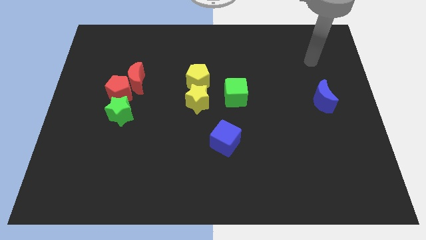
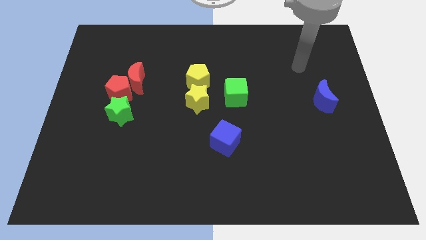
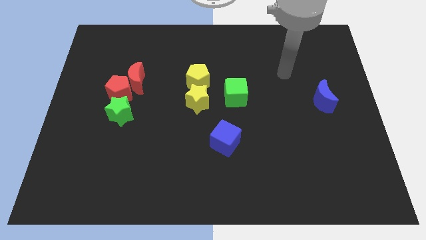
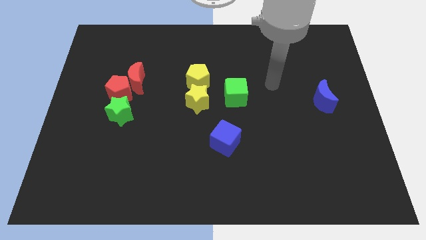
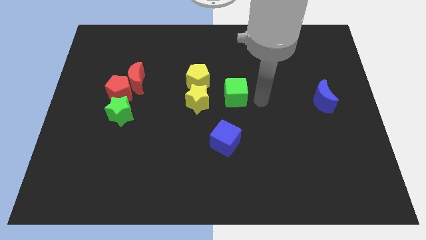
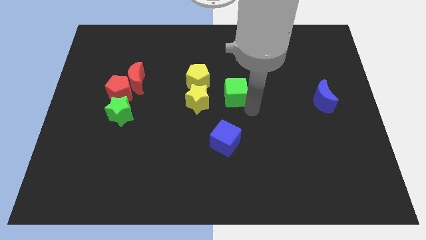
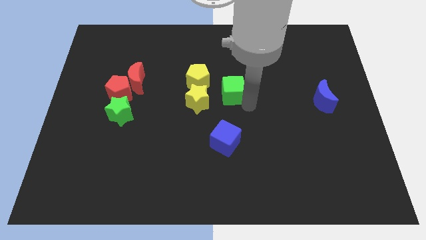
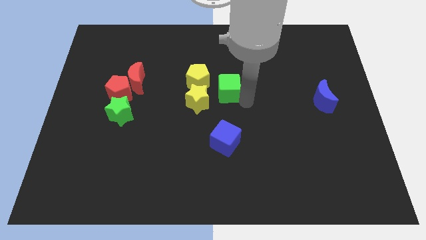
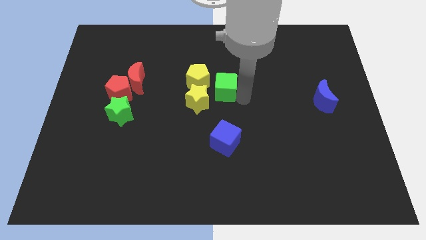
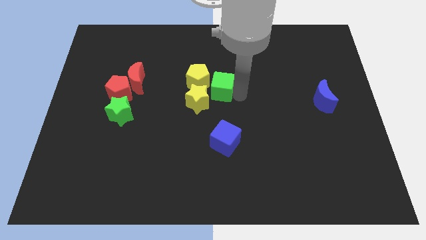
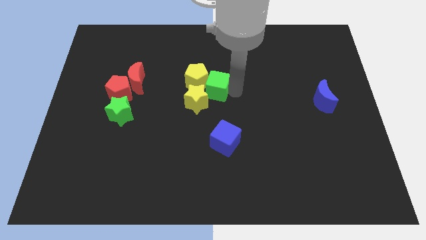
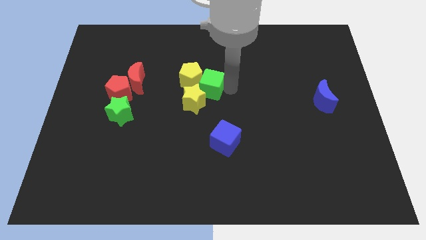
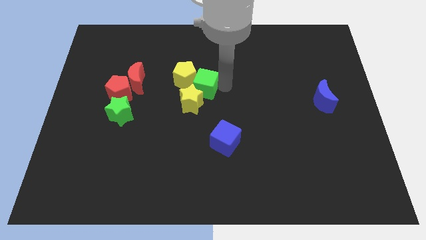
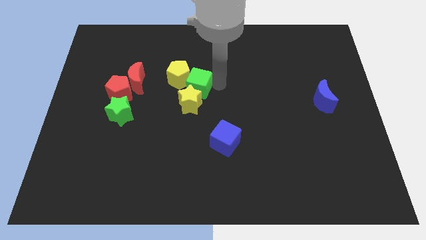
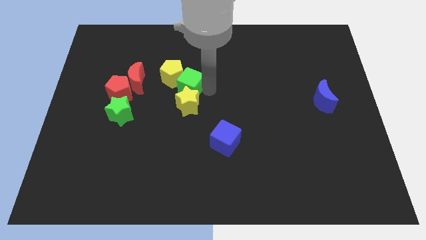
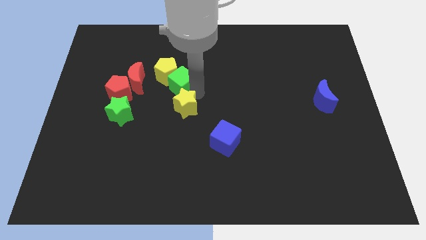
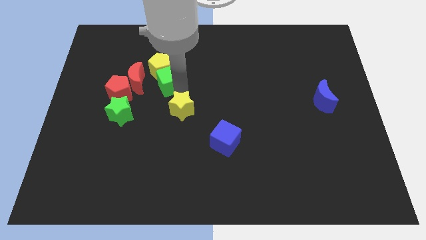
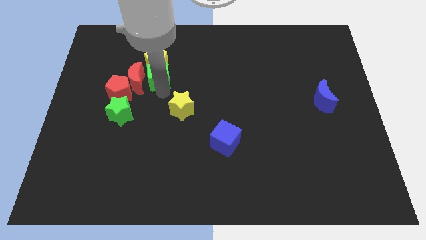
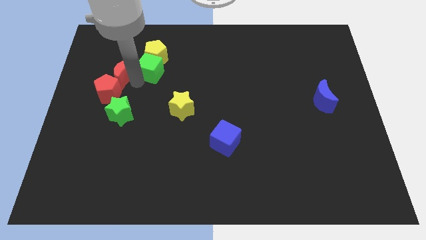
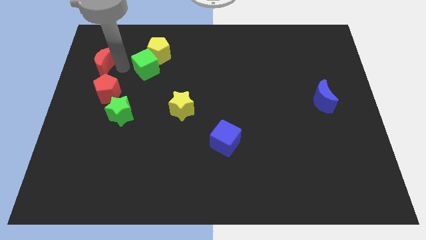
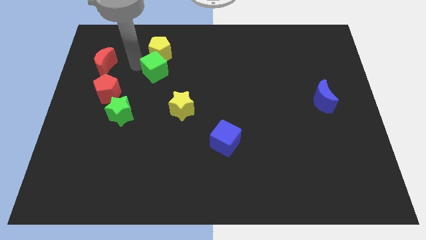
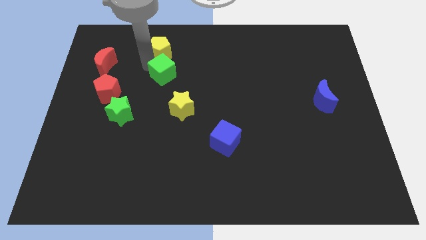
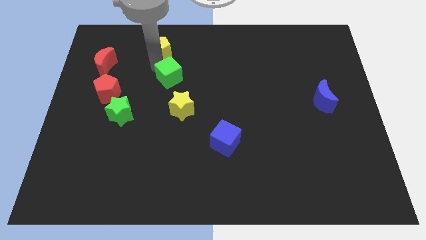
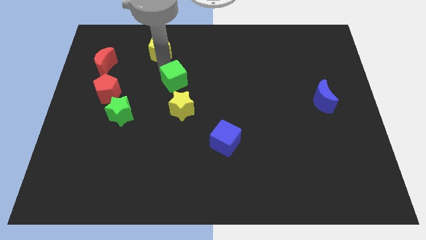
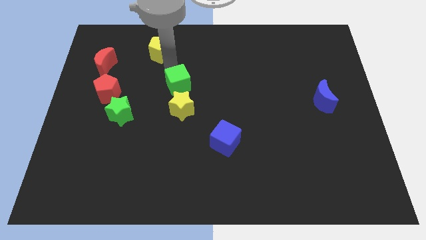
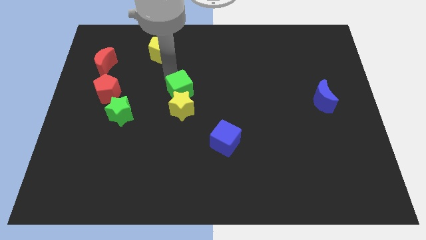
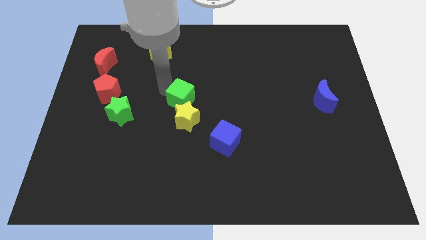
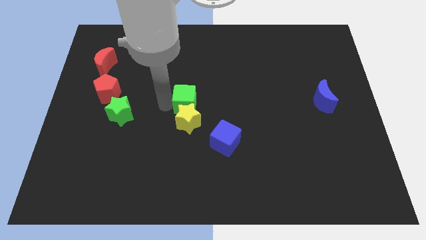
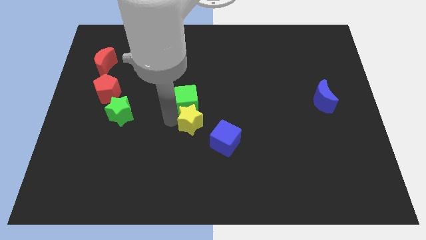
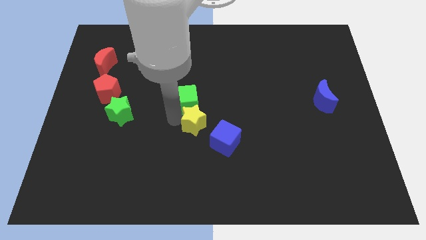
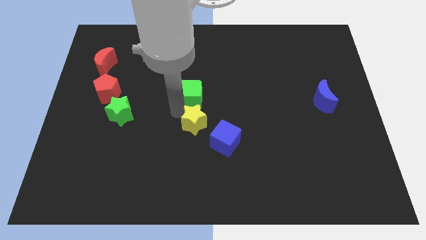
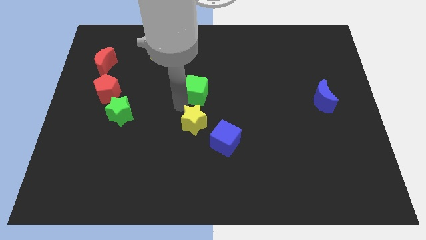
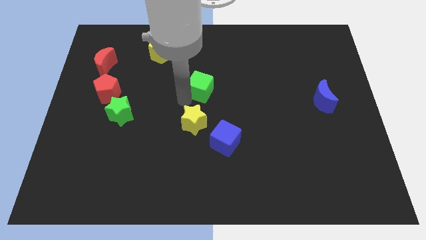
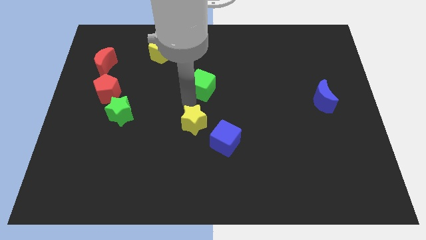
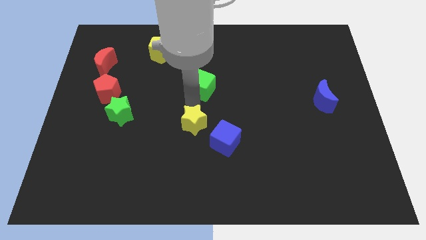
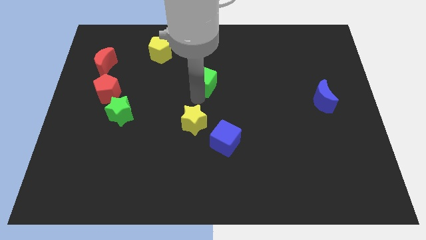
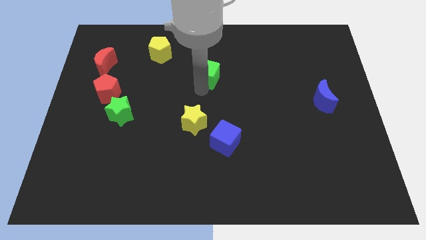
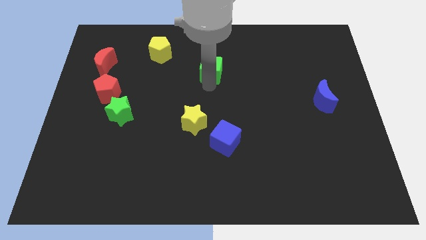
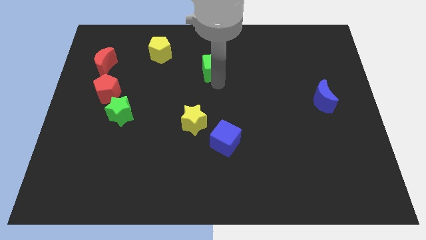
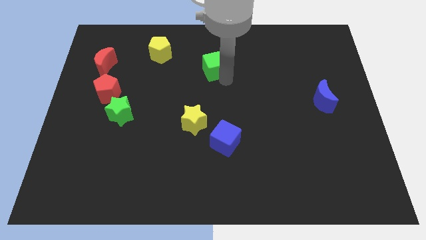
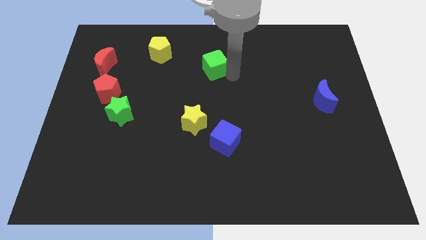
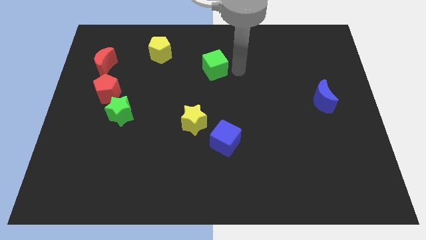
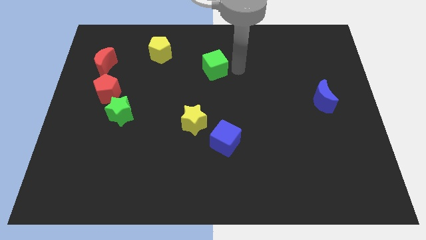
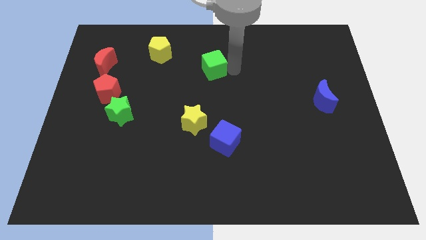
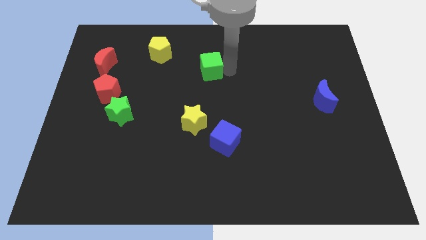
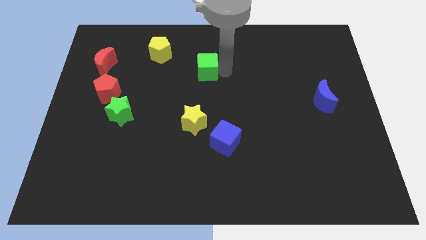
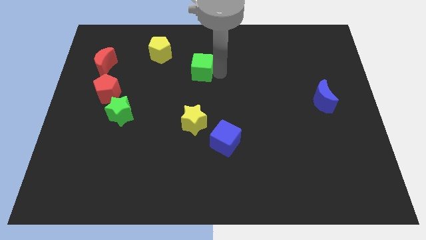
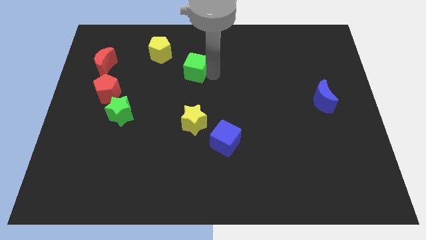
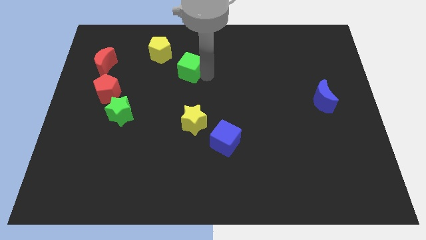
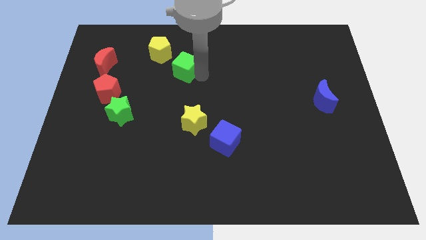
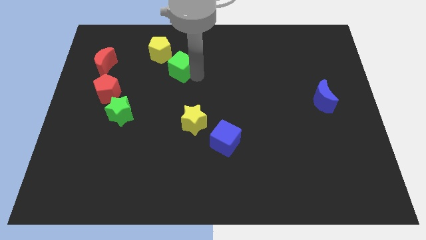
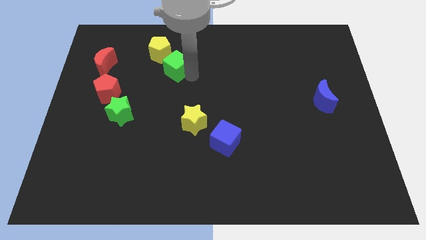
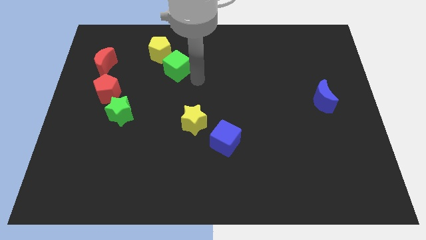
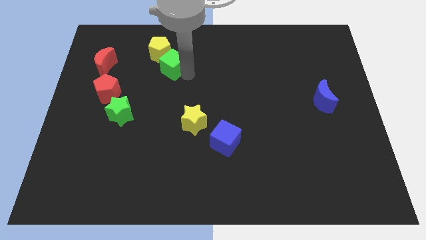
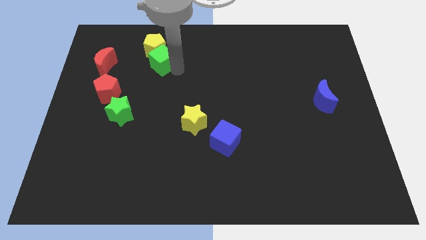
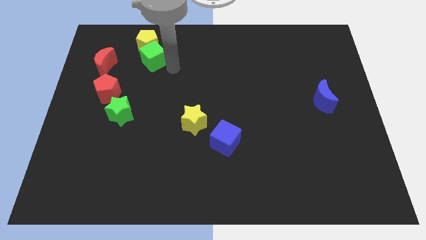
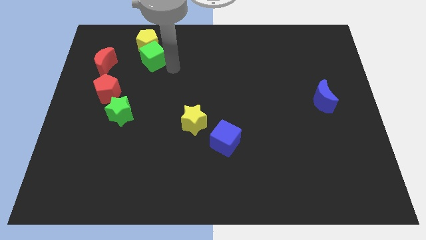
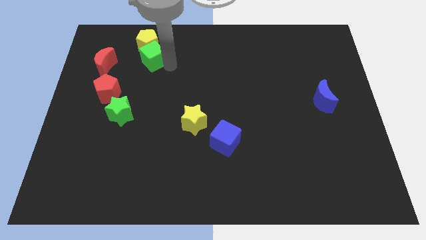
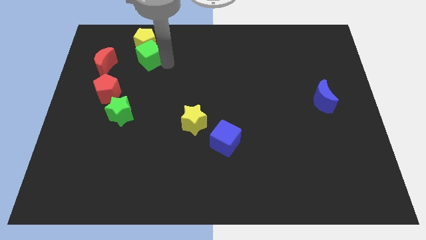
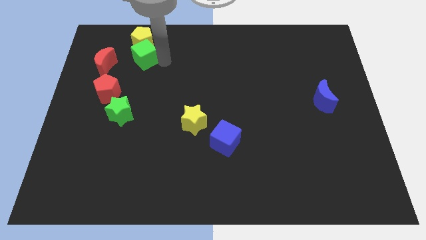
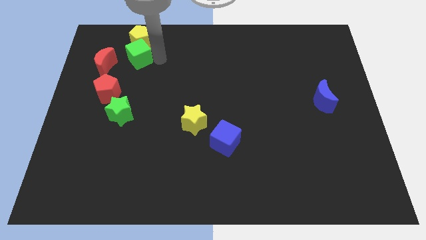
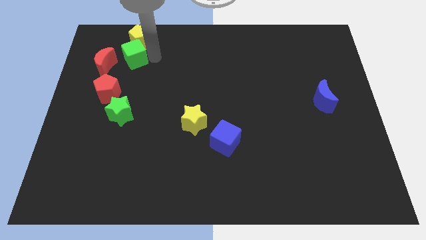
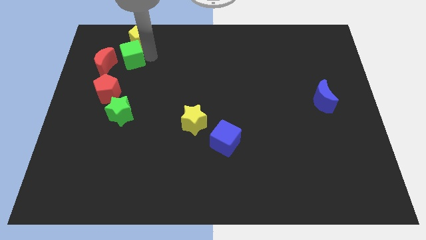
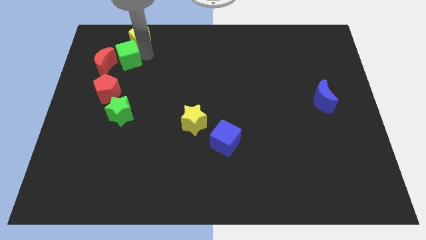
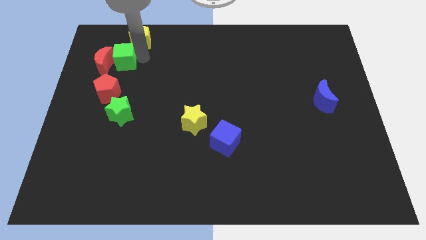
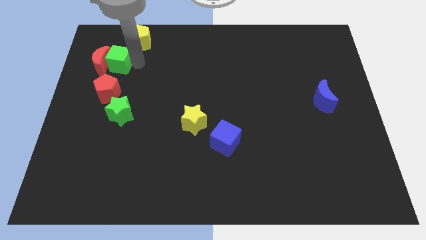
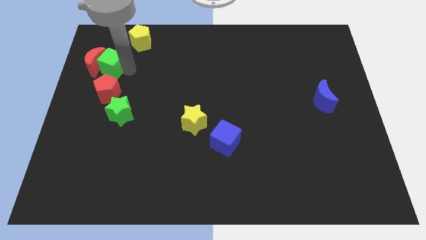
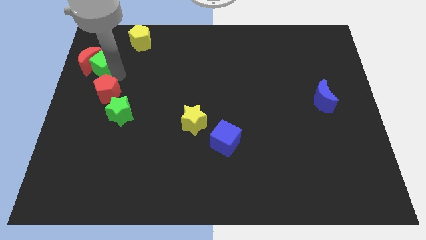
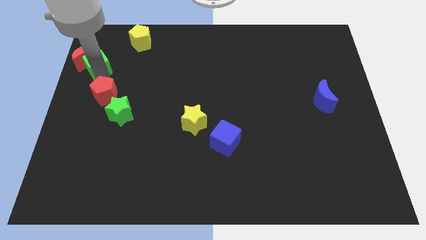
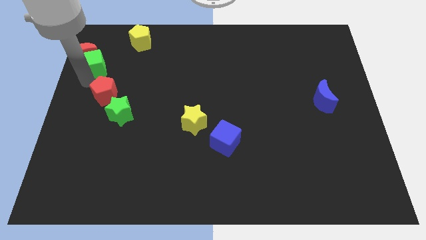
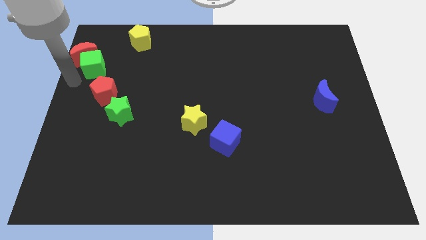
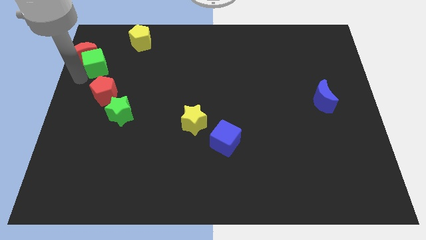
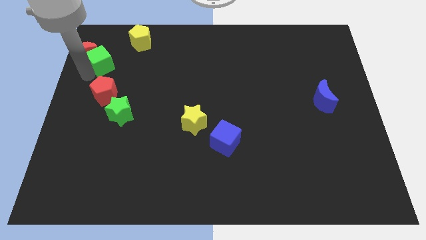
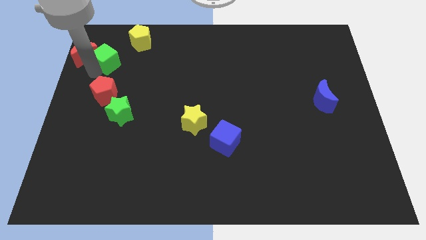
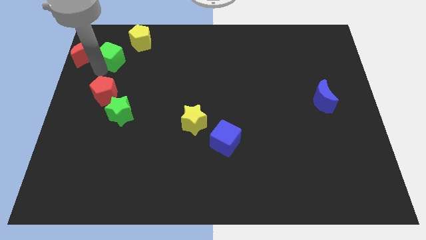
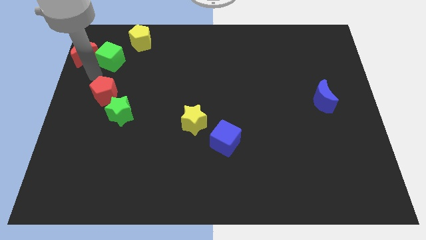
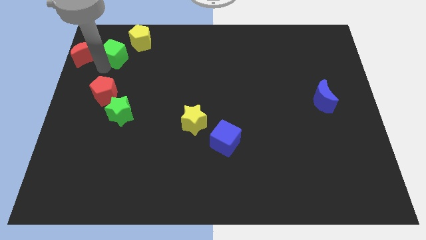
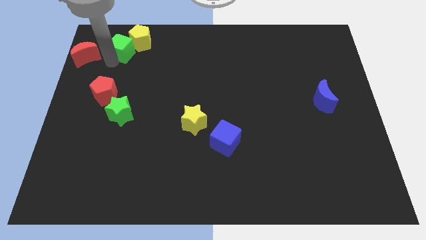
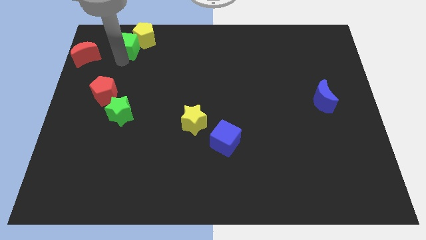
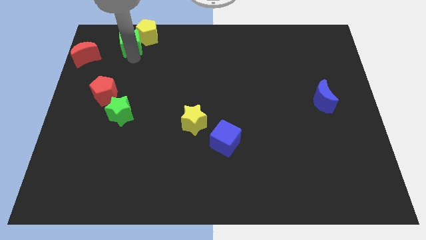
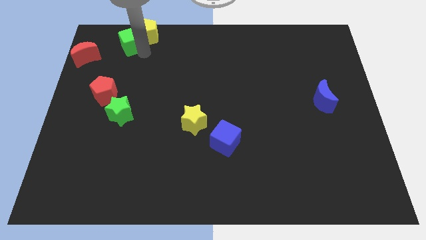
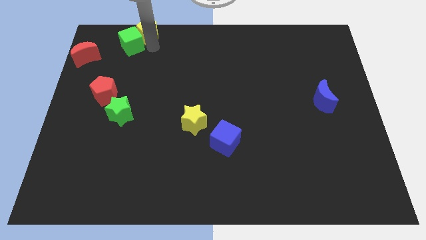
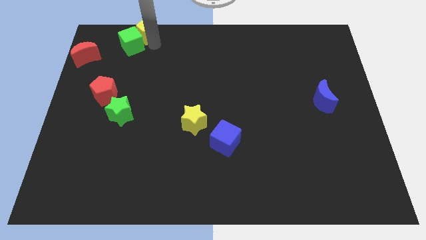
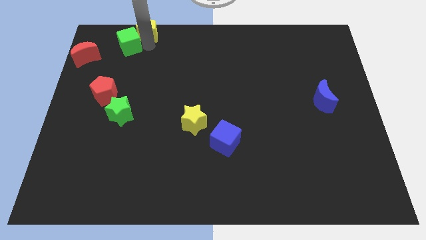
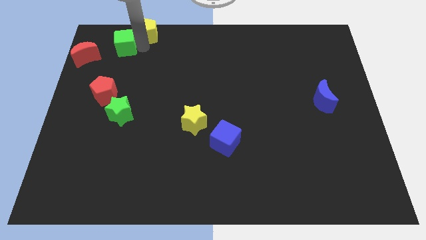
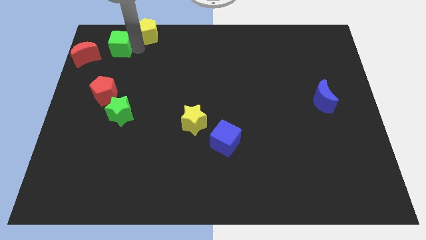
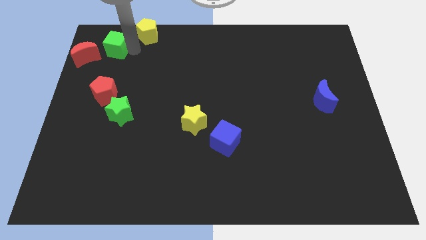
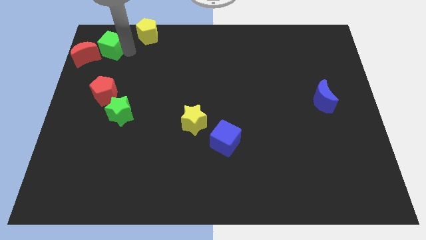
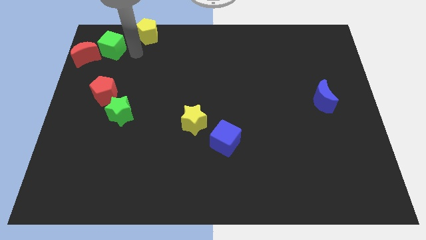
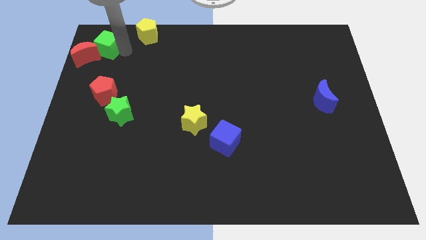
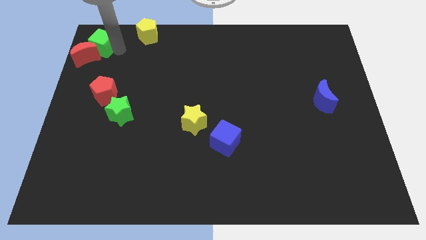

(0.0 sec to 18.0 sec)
move the green cube to the top left
